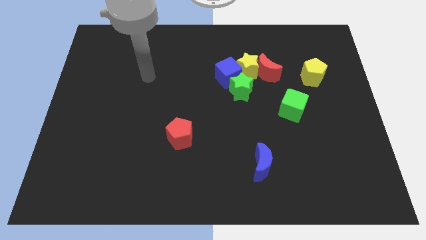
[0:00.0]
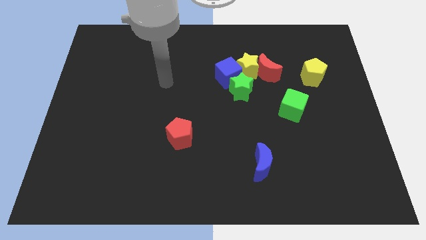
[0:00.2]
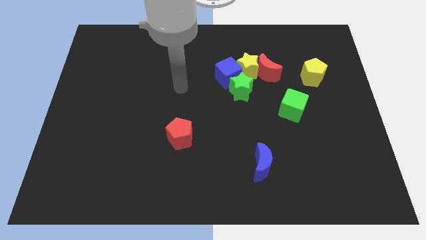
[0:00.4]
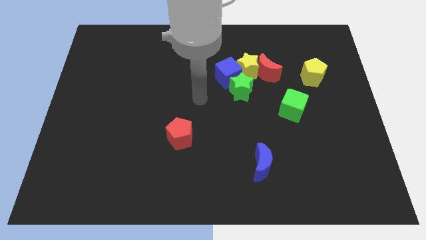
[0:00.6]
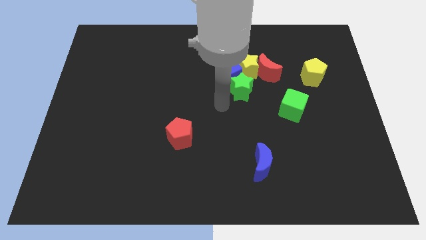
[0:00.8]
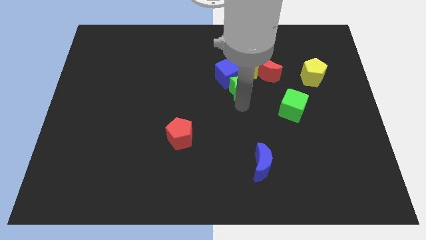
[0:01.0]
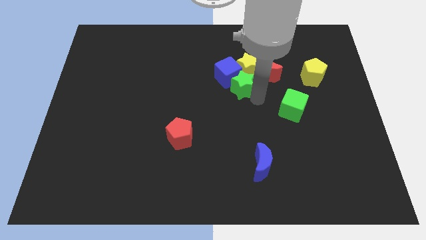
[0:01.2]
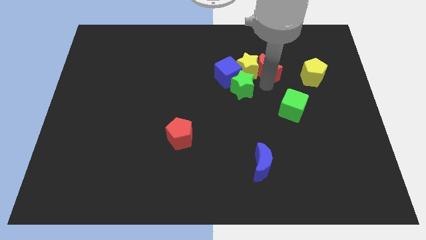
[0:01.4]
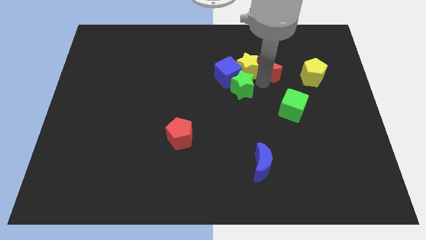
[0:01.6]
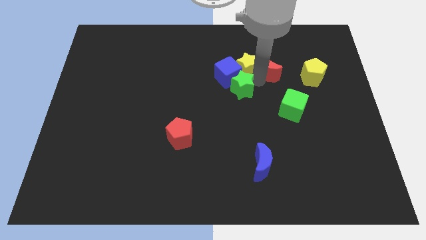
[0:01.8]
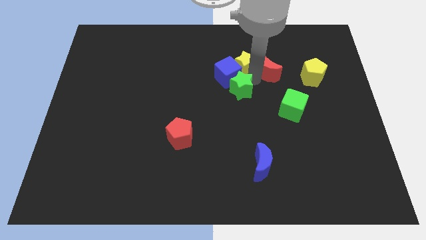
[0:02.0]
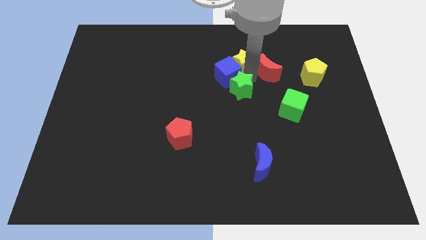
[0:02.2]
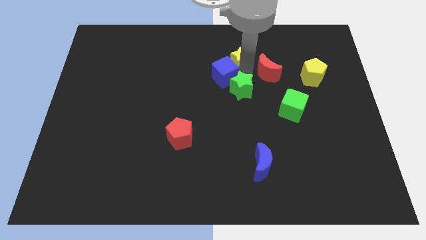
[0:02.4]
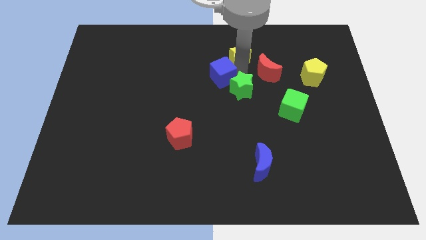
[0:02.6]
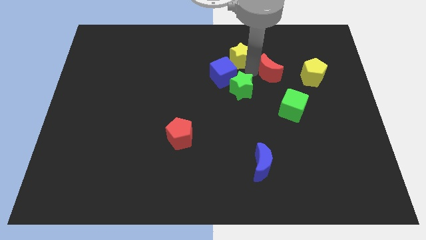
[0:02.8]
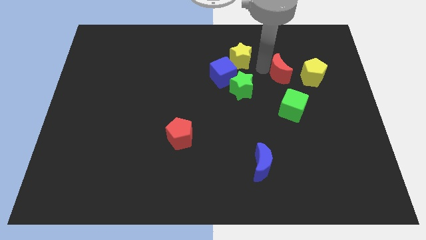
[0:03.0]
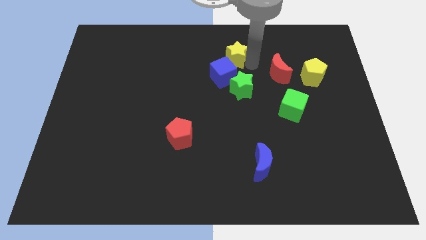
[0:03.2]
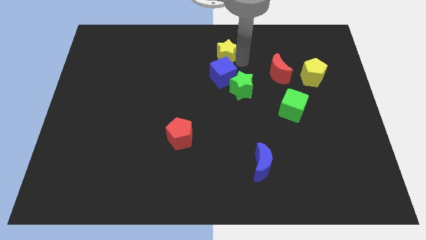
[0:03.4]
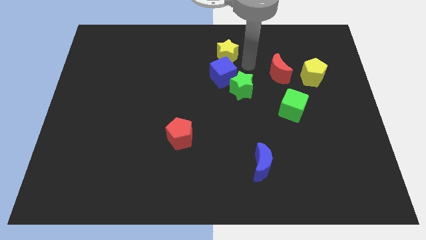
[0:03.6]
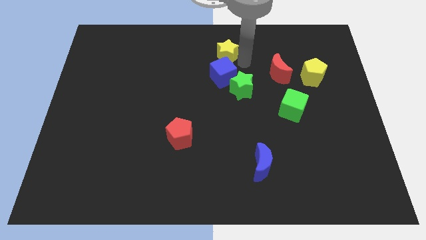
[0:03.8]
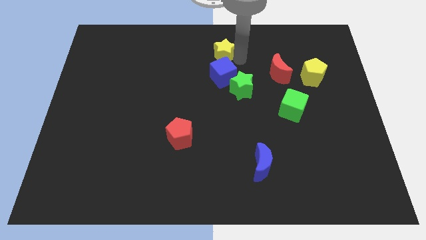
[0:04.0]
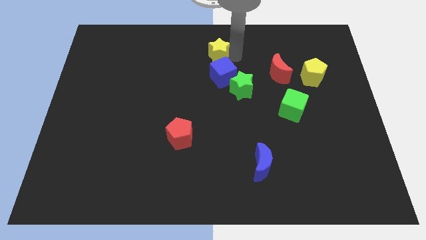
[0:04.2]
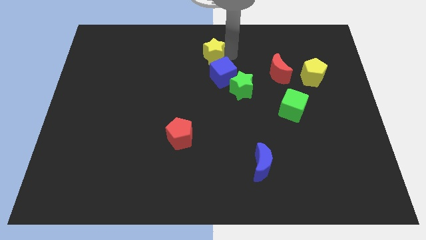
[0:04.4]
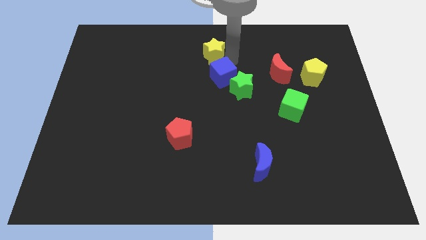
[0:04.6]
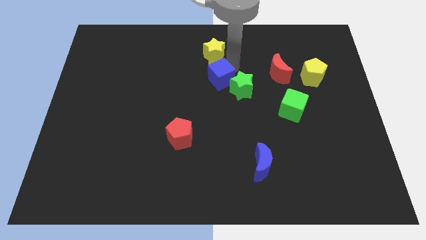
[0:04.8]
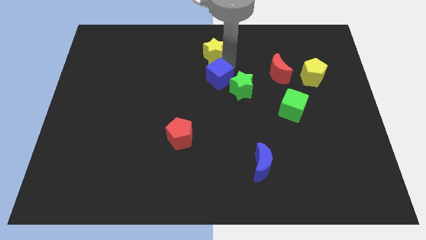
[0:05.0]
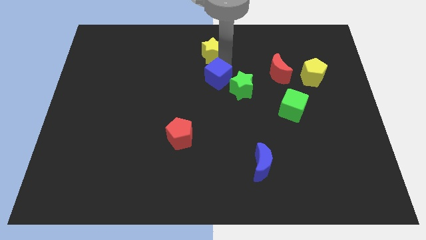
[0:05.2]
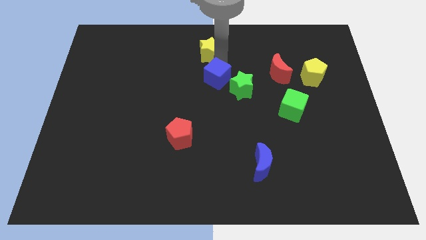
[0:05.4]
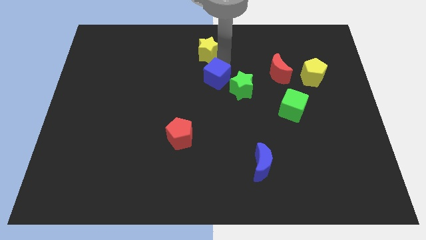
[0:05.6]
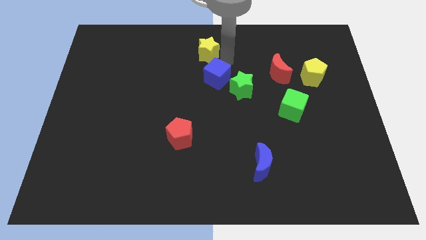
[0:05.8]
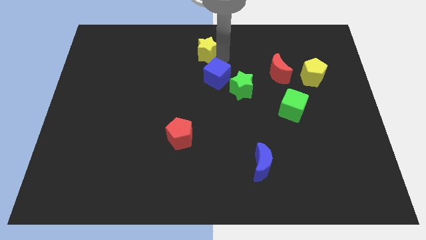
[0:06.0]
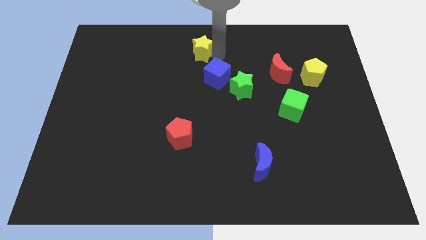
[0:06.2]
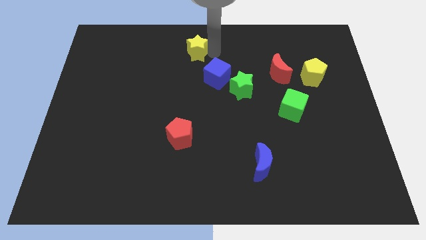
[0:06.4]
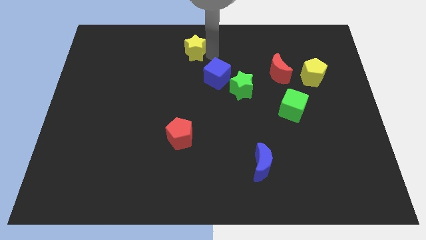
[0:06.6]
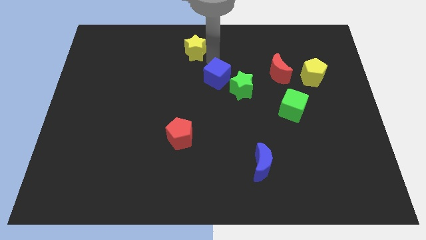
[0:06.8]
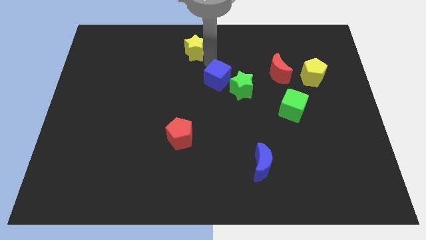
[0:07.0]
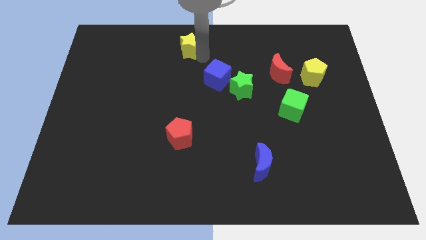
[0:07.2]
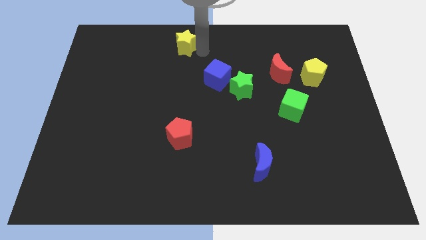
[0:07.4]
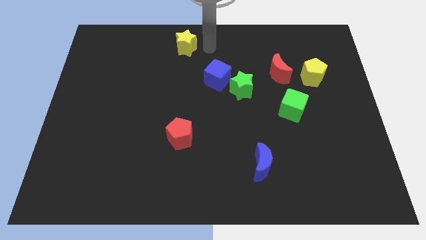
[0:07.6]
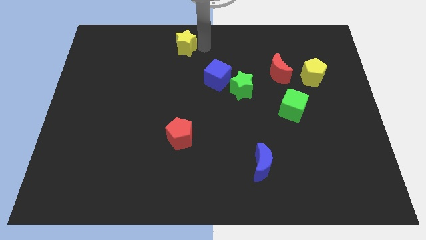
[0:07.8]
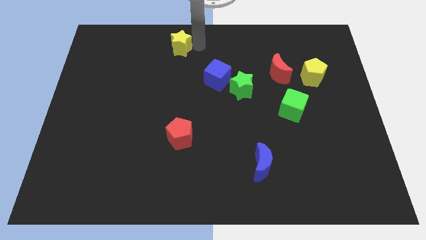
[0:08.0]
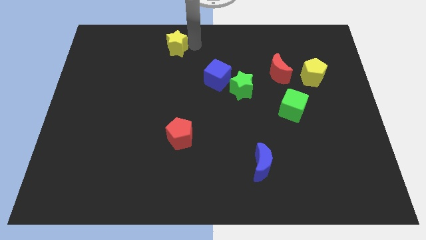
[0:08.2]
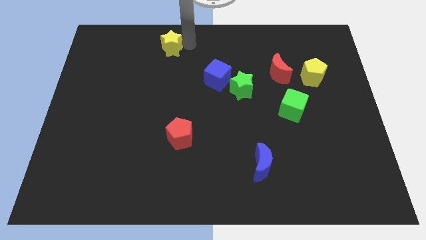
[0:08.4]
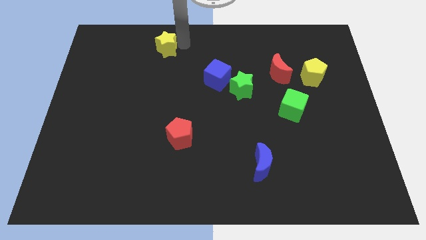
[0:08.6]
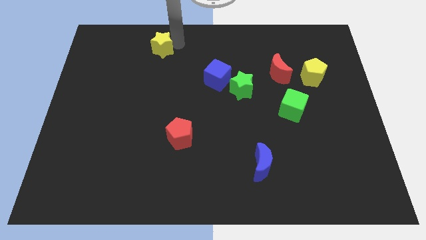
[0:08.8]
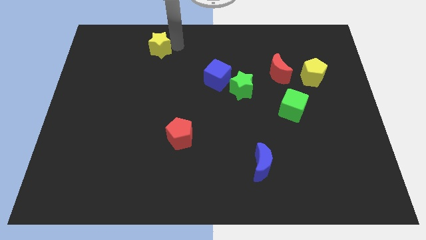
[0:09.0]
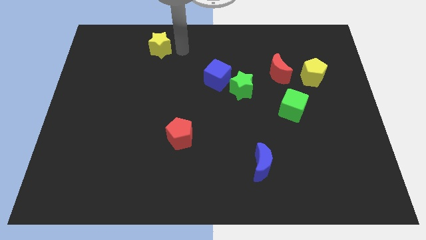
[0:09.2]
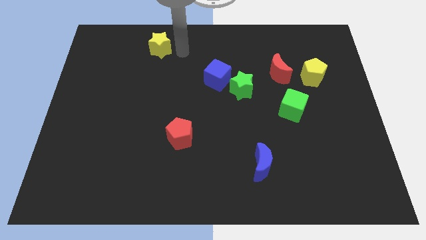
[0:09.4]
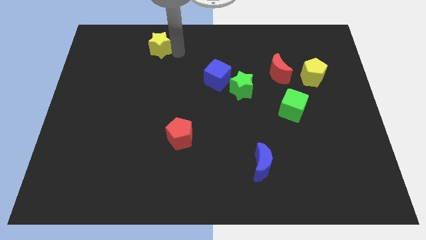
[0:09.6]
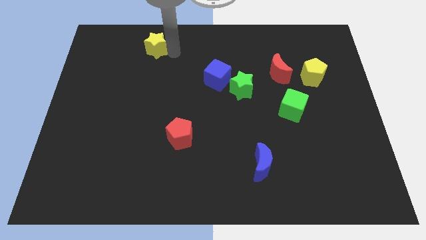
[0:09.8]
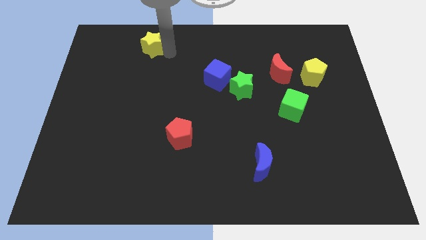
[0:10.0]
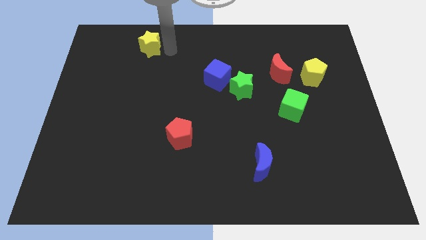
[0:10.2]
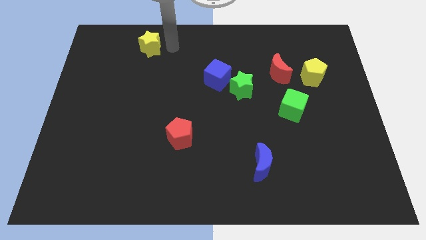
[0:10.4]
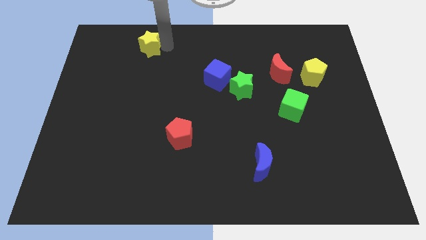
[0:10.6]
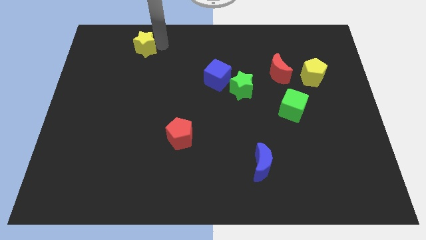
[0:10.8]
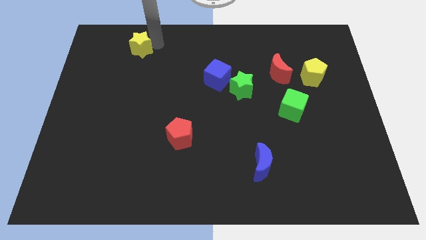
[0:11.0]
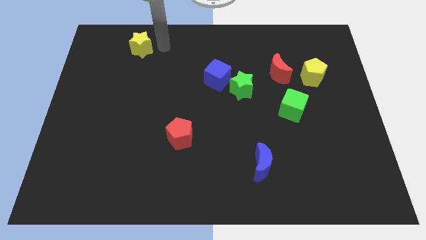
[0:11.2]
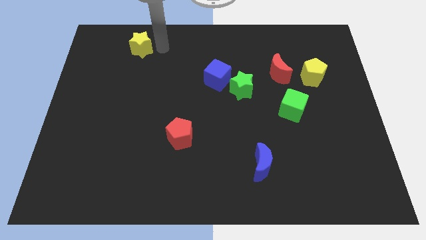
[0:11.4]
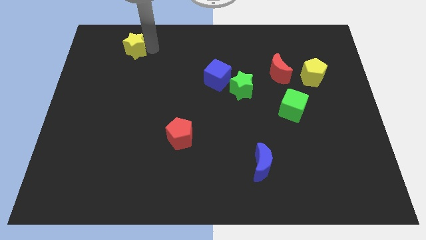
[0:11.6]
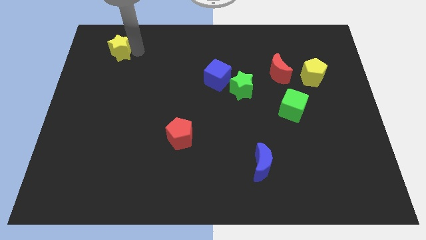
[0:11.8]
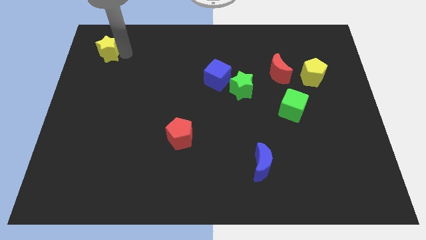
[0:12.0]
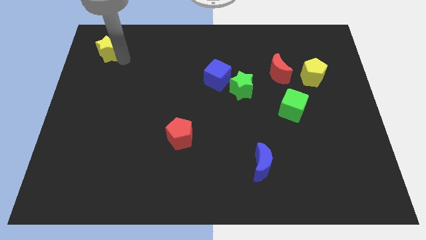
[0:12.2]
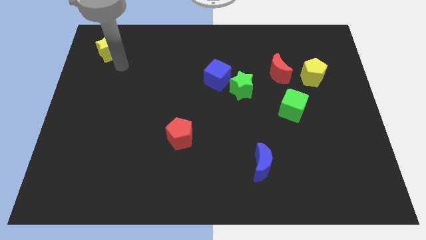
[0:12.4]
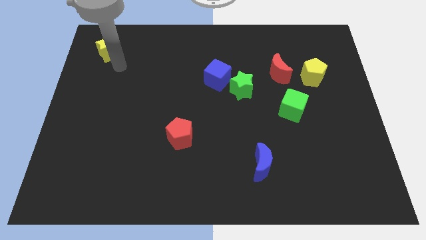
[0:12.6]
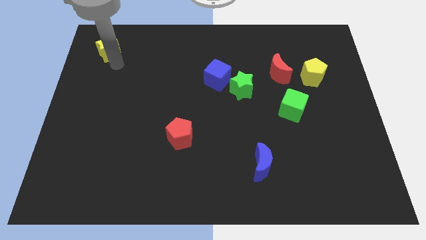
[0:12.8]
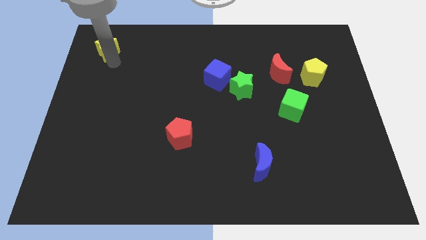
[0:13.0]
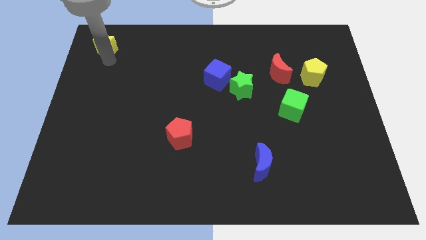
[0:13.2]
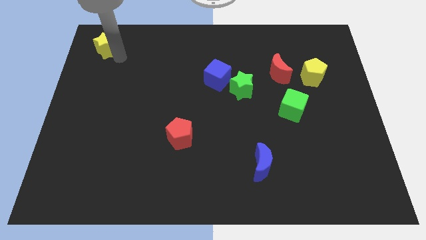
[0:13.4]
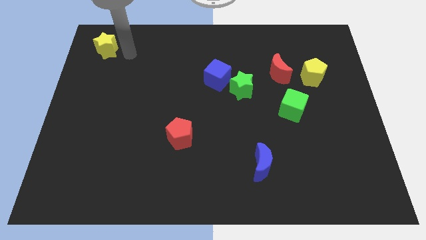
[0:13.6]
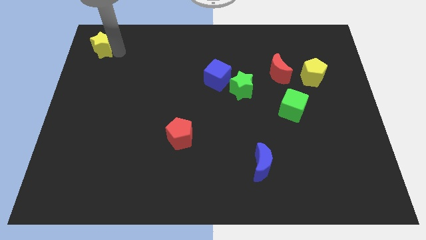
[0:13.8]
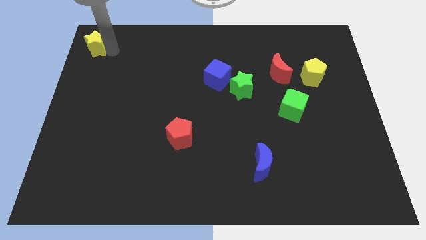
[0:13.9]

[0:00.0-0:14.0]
move the yellow star to the top left corner
